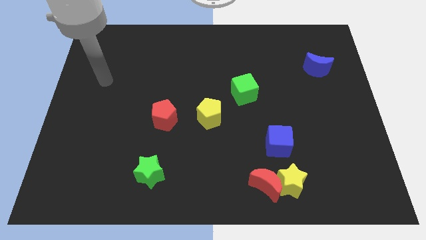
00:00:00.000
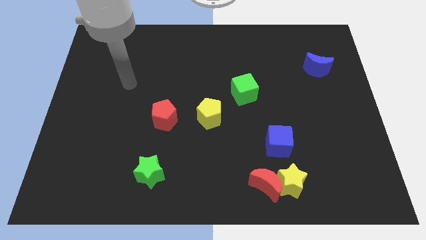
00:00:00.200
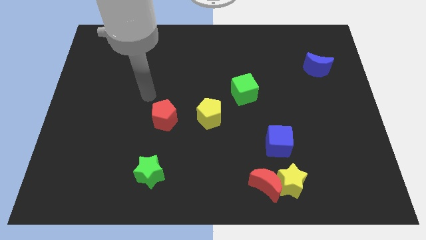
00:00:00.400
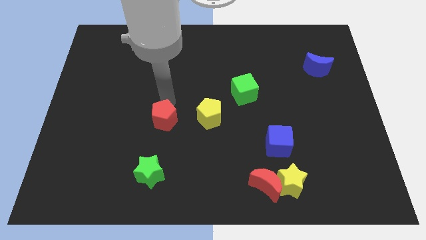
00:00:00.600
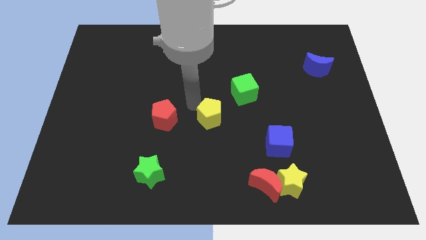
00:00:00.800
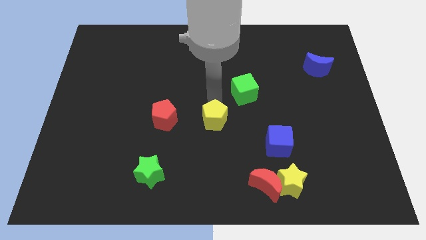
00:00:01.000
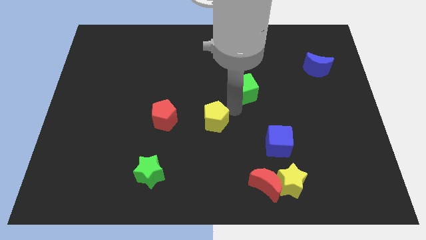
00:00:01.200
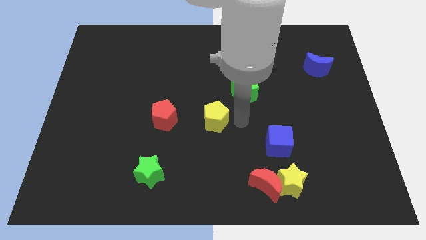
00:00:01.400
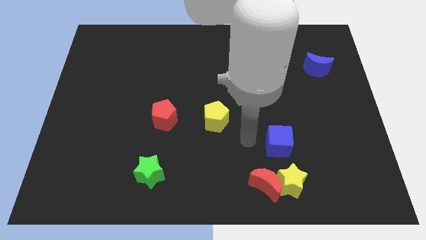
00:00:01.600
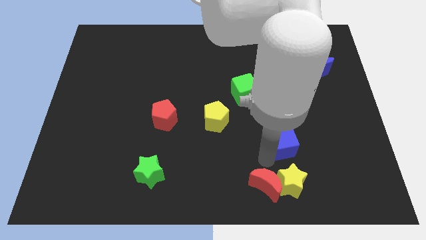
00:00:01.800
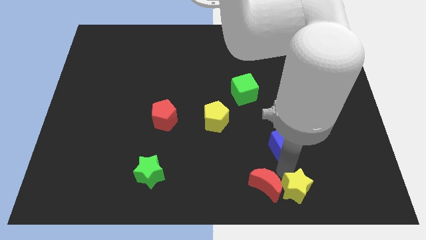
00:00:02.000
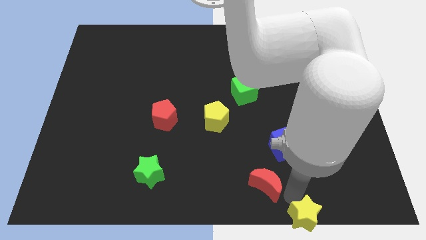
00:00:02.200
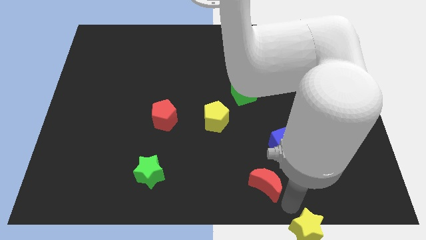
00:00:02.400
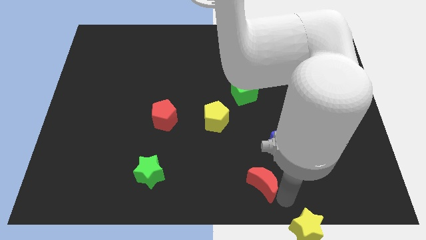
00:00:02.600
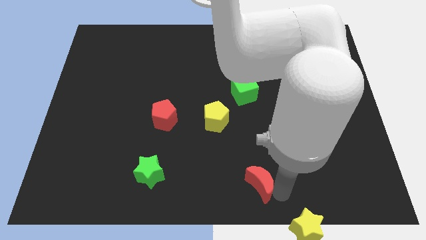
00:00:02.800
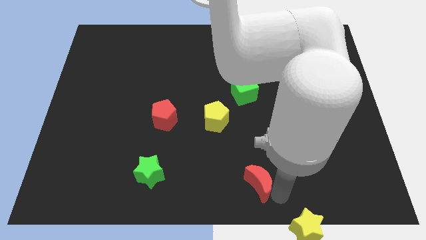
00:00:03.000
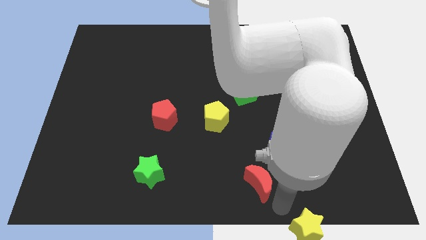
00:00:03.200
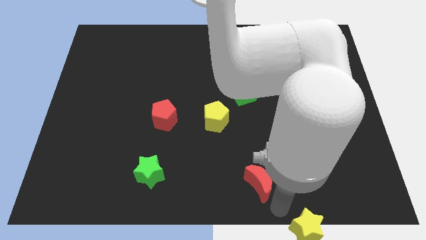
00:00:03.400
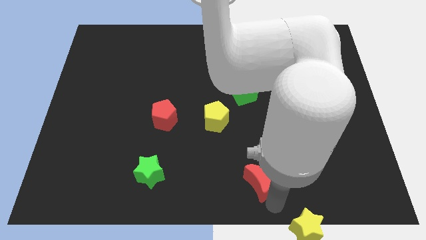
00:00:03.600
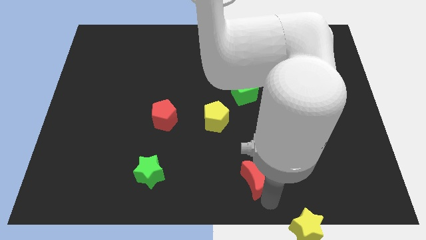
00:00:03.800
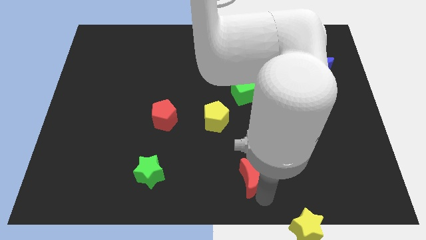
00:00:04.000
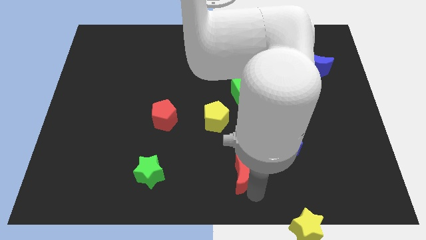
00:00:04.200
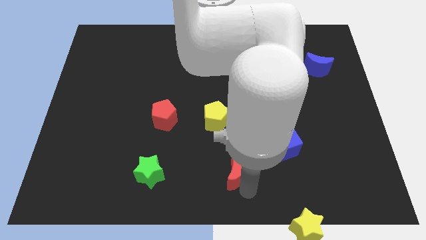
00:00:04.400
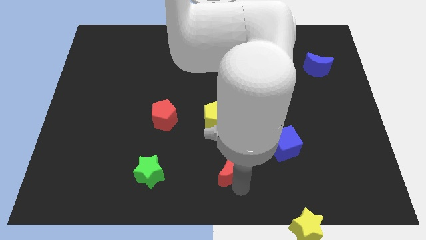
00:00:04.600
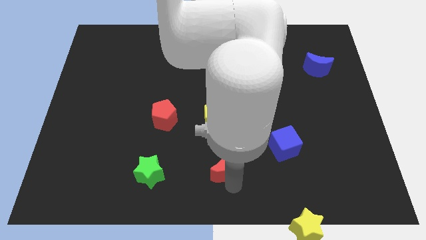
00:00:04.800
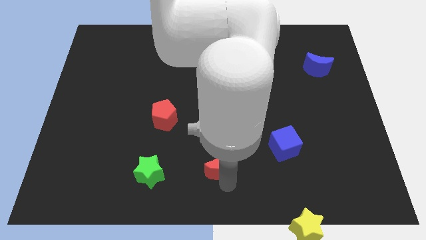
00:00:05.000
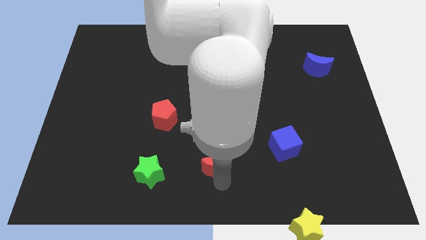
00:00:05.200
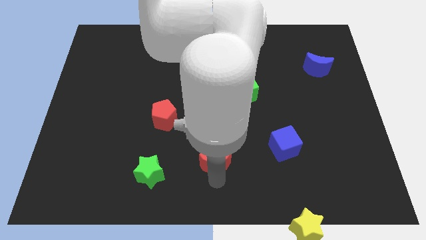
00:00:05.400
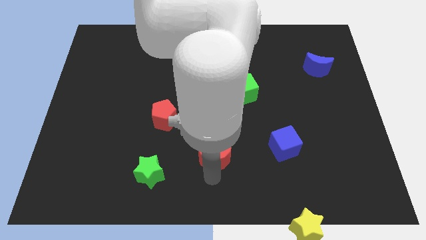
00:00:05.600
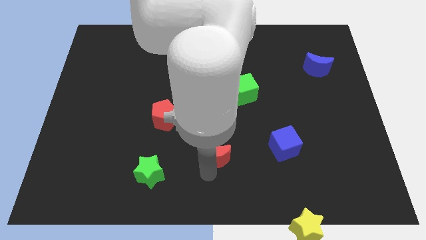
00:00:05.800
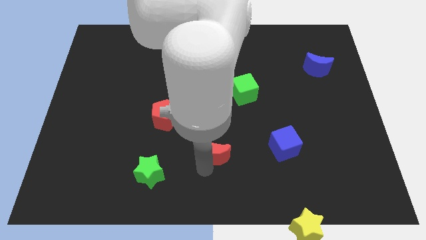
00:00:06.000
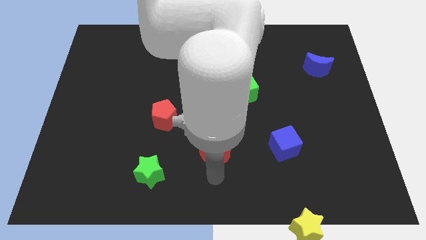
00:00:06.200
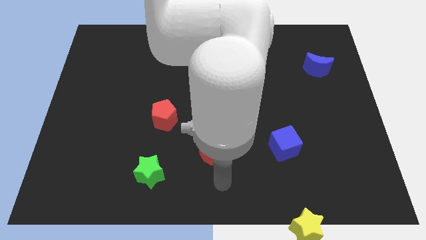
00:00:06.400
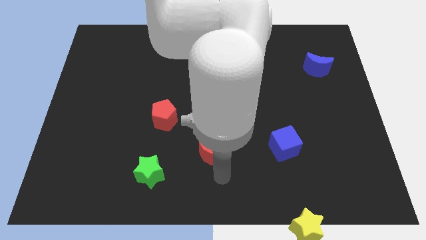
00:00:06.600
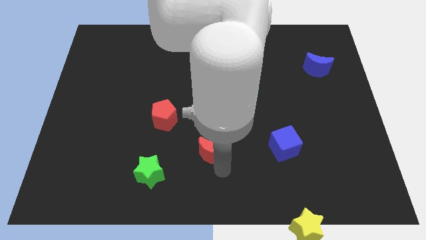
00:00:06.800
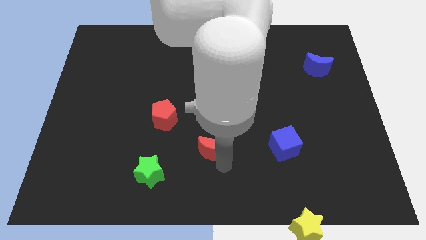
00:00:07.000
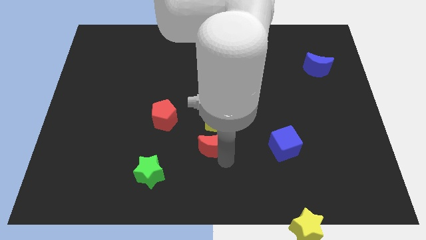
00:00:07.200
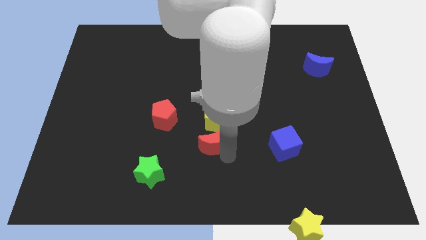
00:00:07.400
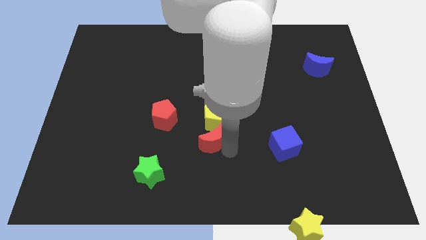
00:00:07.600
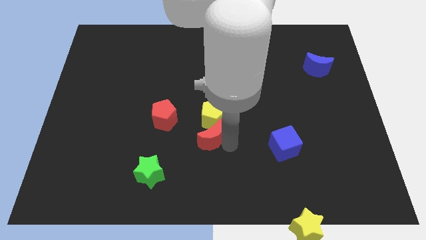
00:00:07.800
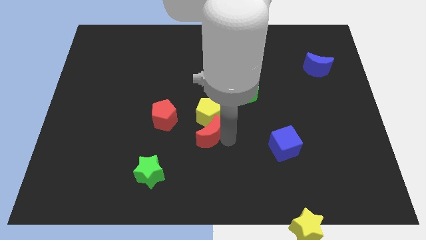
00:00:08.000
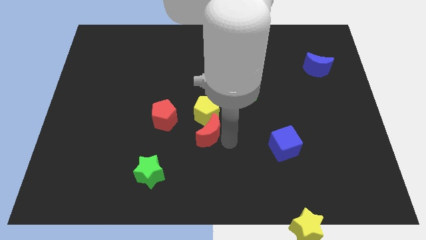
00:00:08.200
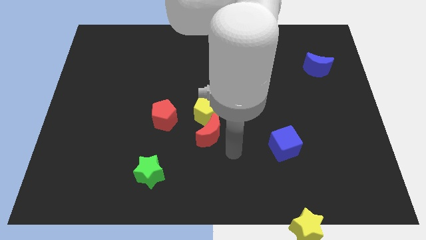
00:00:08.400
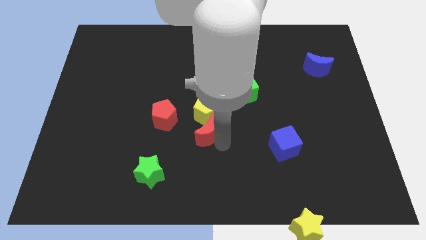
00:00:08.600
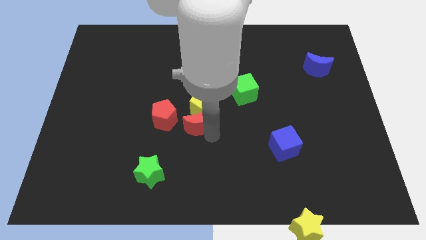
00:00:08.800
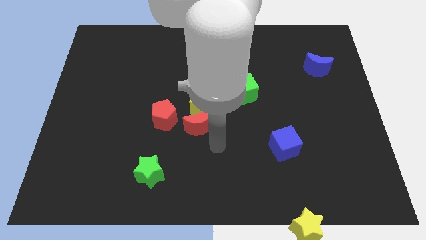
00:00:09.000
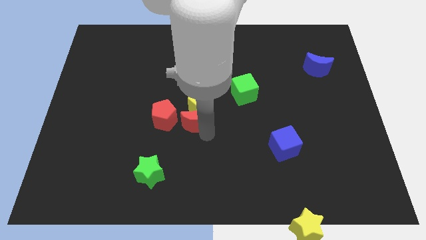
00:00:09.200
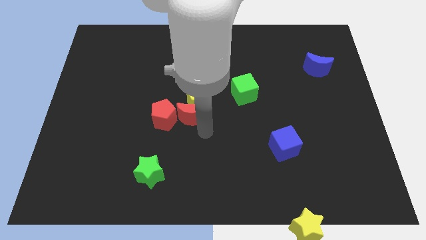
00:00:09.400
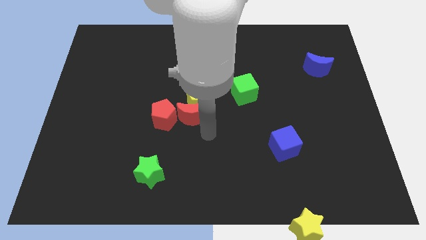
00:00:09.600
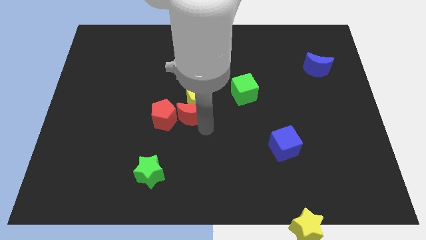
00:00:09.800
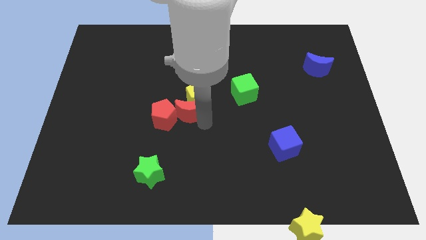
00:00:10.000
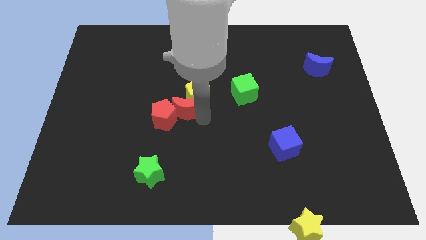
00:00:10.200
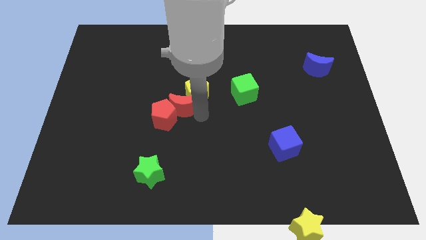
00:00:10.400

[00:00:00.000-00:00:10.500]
slide the red moon to the top of the red pentagon

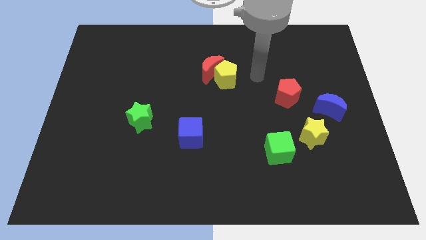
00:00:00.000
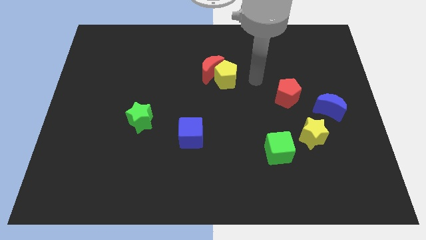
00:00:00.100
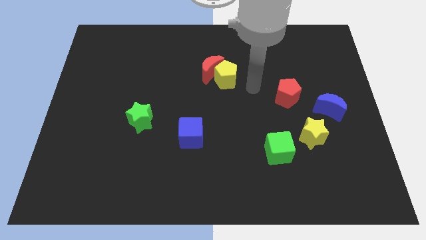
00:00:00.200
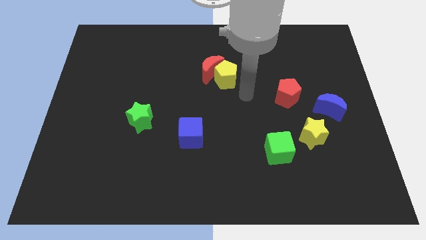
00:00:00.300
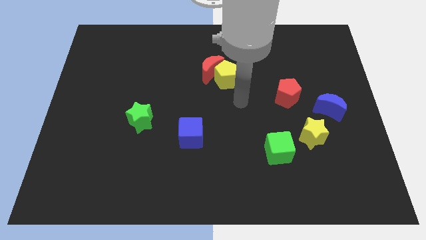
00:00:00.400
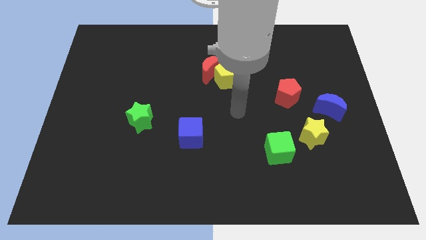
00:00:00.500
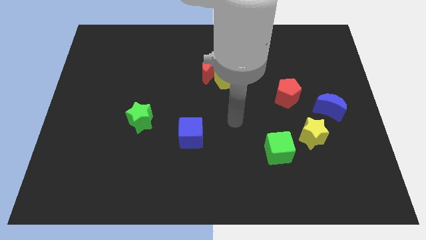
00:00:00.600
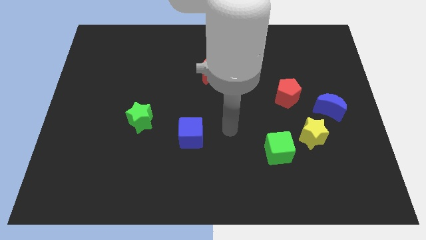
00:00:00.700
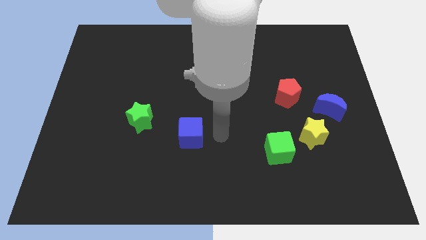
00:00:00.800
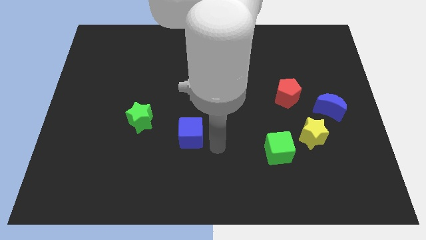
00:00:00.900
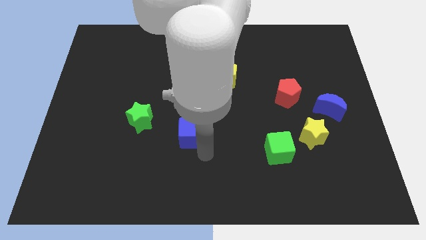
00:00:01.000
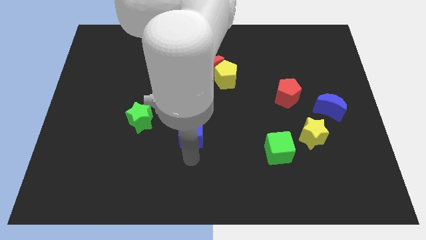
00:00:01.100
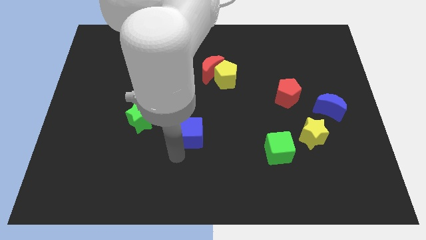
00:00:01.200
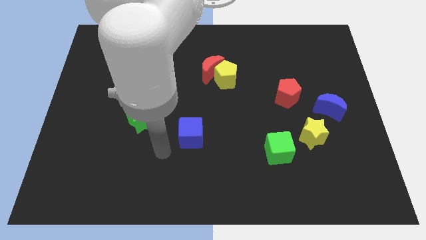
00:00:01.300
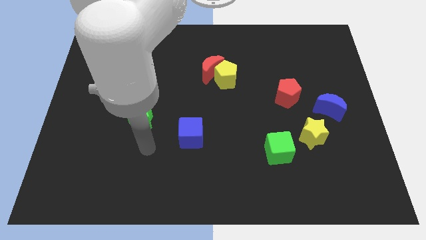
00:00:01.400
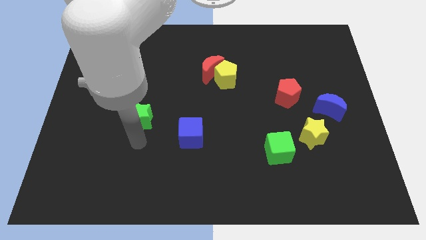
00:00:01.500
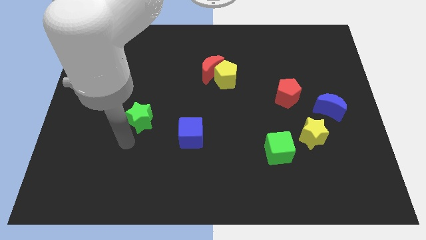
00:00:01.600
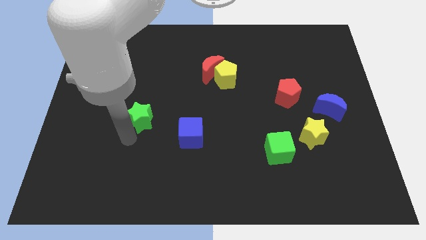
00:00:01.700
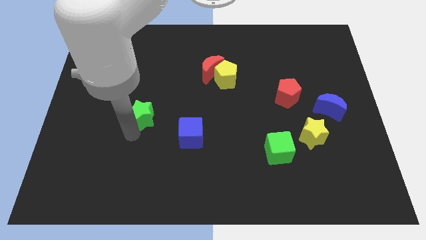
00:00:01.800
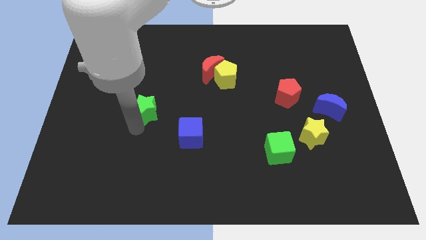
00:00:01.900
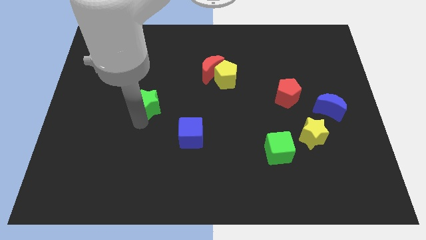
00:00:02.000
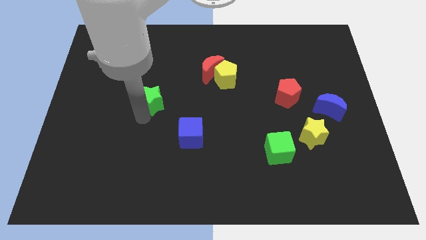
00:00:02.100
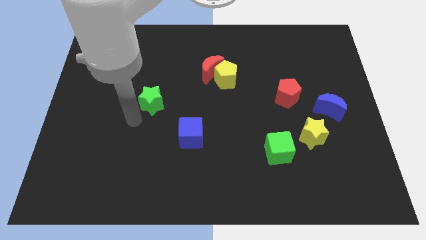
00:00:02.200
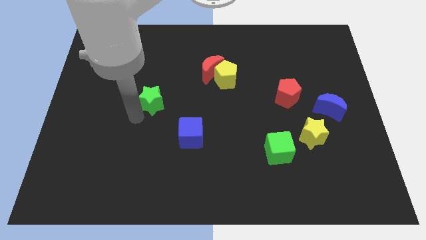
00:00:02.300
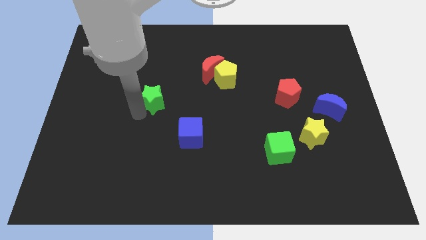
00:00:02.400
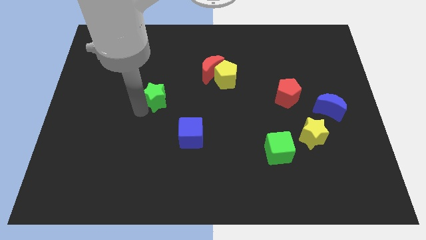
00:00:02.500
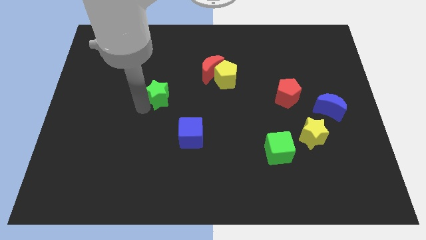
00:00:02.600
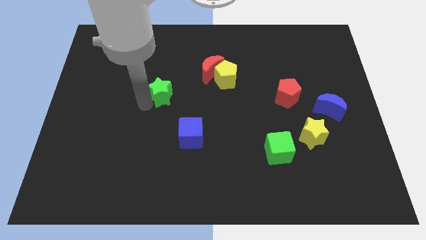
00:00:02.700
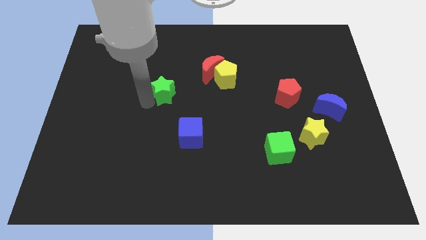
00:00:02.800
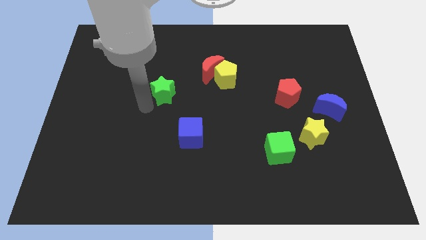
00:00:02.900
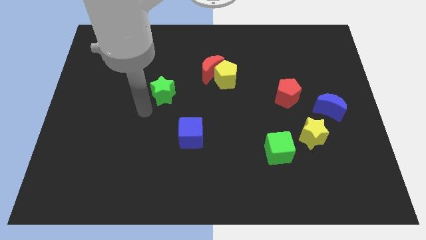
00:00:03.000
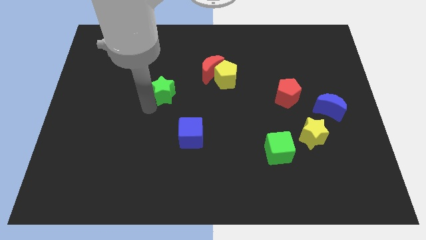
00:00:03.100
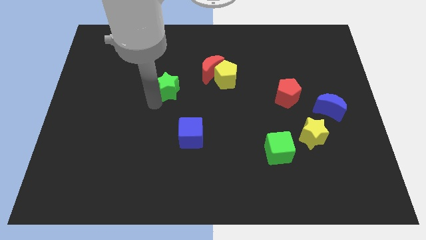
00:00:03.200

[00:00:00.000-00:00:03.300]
move the green star left of the yellow pentagon
